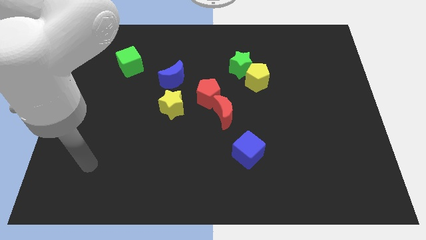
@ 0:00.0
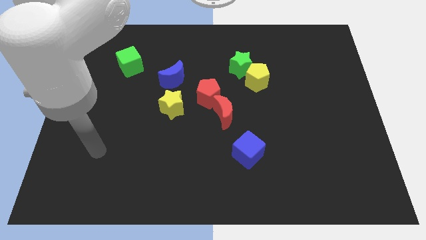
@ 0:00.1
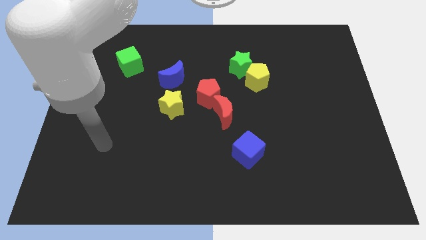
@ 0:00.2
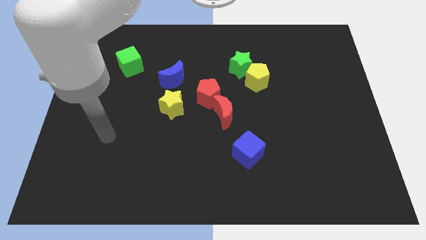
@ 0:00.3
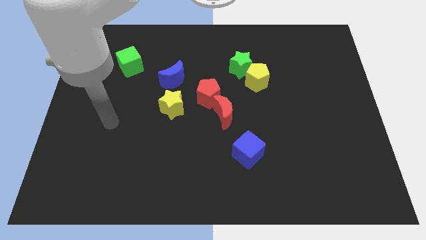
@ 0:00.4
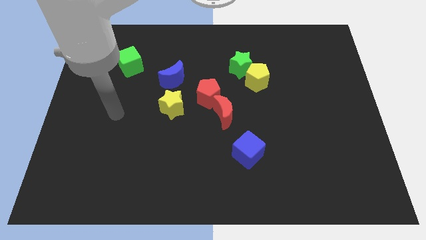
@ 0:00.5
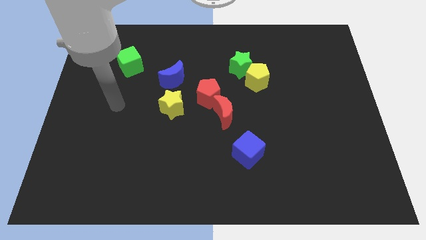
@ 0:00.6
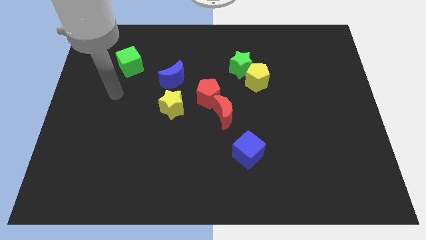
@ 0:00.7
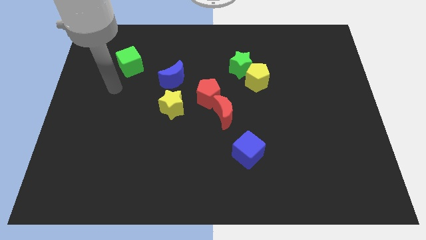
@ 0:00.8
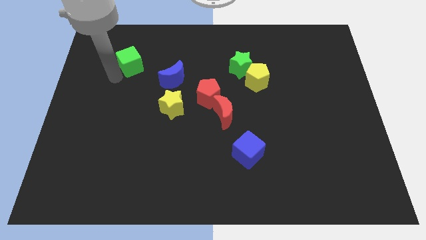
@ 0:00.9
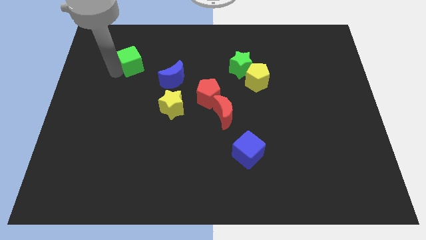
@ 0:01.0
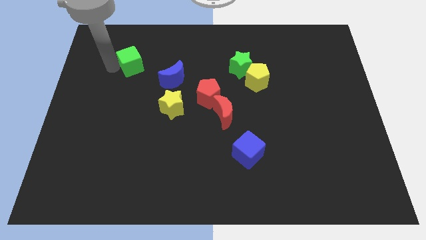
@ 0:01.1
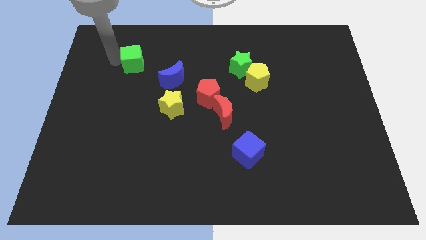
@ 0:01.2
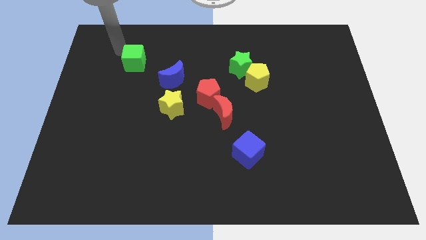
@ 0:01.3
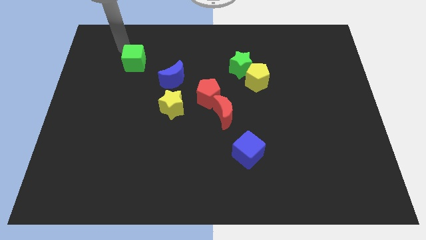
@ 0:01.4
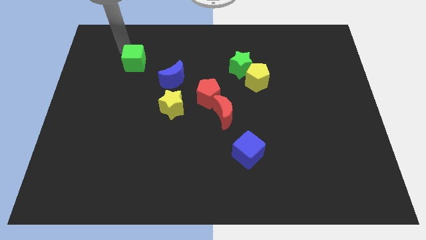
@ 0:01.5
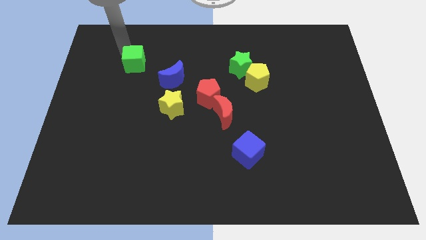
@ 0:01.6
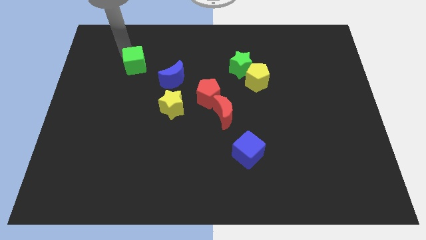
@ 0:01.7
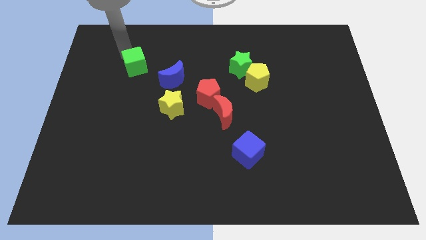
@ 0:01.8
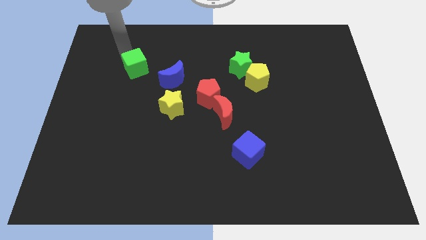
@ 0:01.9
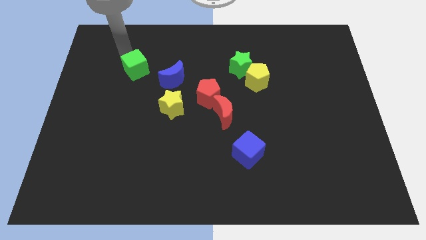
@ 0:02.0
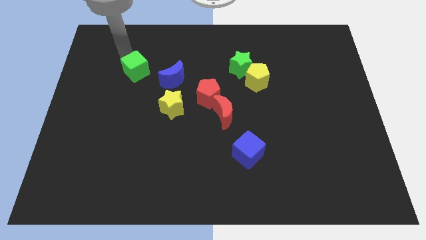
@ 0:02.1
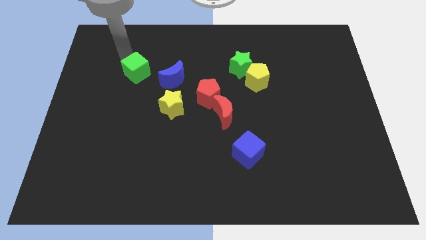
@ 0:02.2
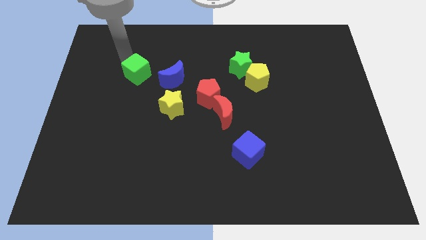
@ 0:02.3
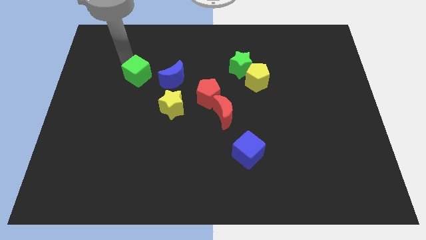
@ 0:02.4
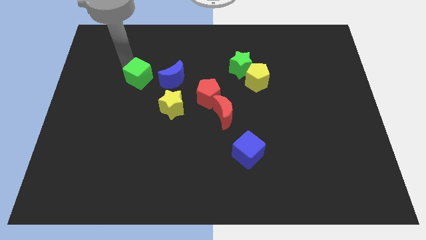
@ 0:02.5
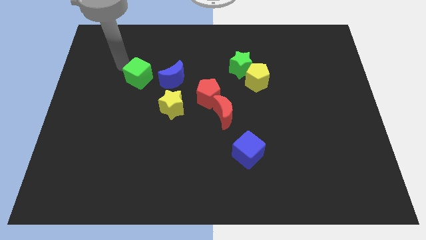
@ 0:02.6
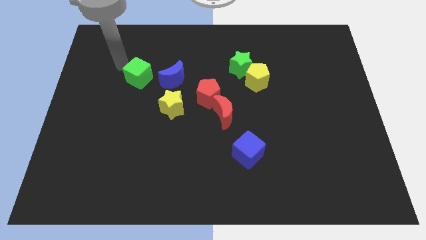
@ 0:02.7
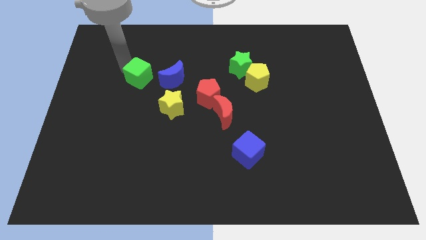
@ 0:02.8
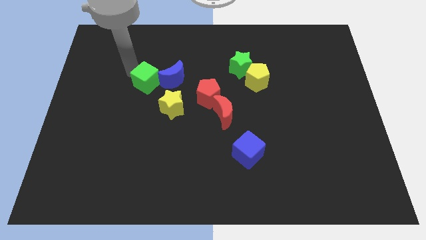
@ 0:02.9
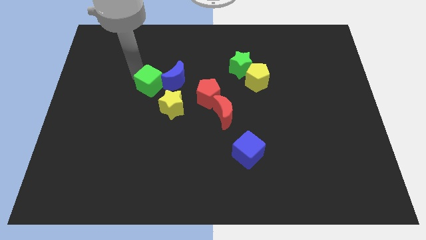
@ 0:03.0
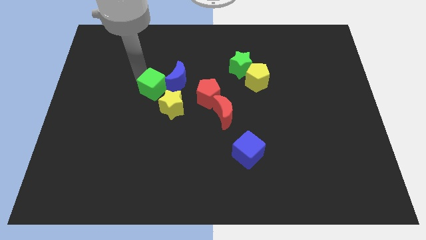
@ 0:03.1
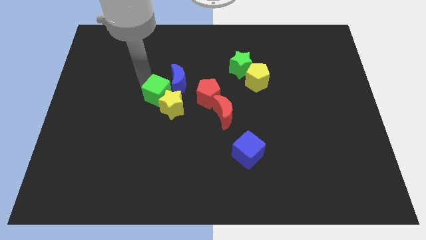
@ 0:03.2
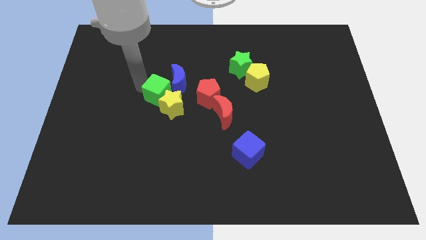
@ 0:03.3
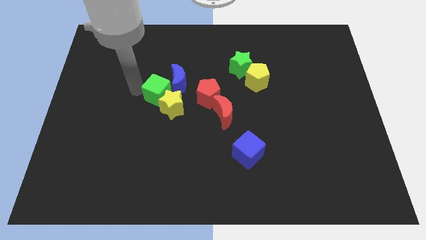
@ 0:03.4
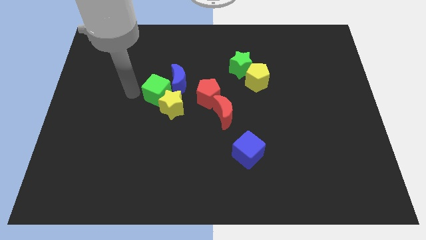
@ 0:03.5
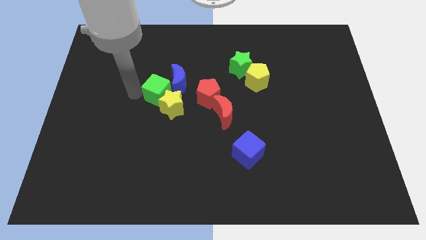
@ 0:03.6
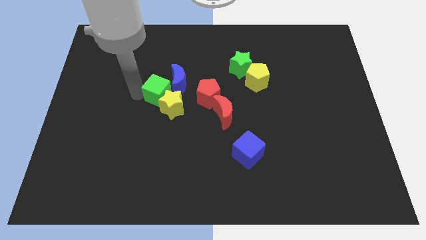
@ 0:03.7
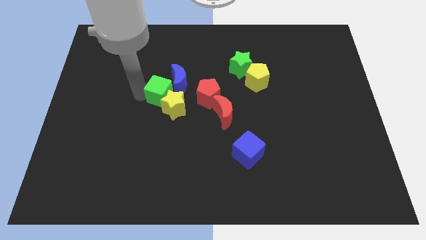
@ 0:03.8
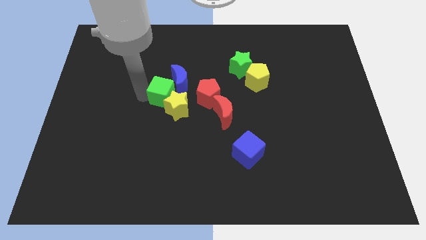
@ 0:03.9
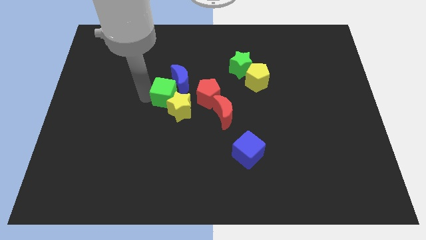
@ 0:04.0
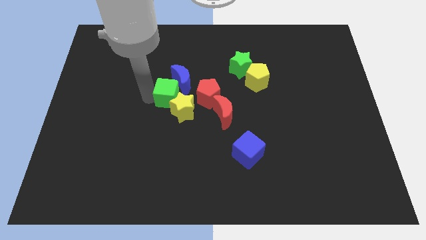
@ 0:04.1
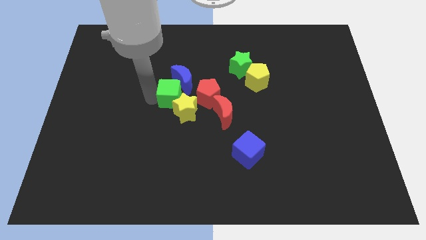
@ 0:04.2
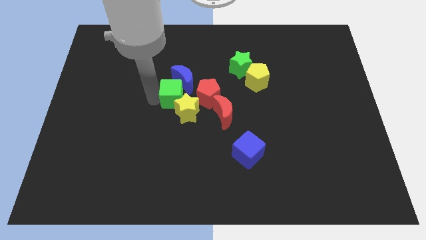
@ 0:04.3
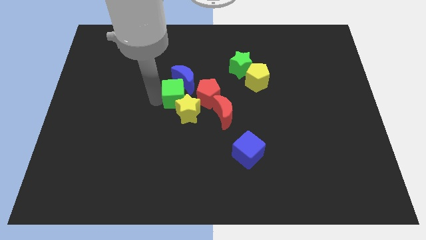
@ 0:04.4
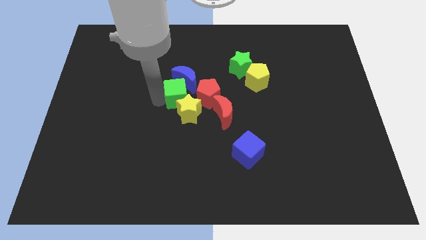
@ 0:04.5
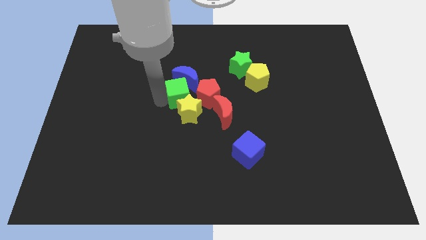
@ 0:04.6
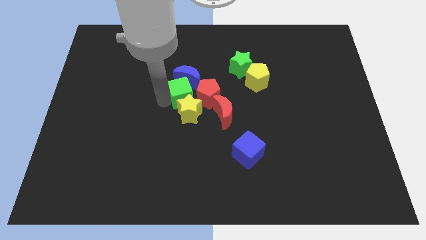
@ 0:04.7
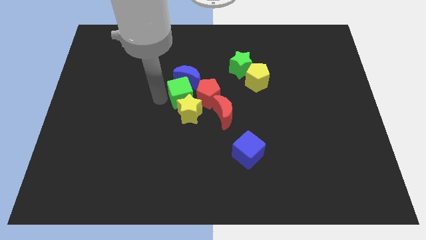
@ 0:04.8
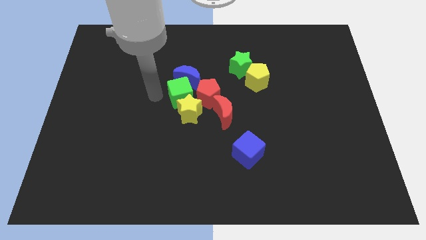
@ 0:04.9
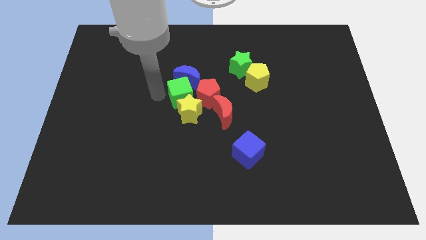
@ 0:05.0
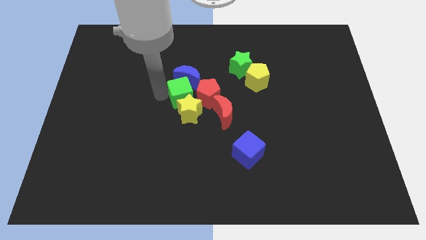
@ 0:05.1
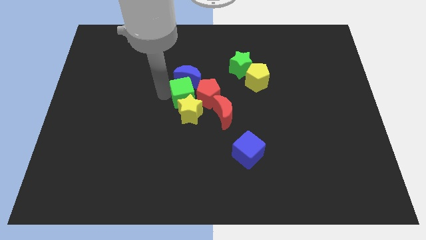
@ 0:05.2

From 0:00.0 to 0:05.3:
put the green cube towards the red pentagon

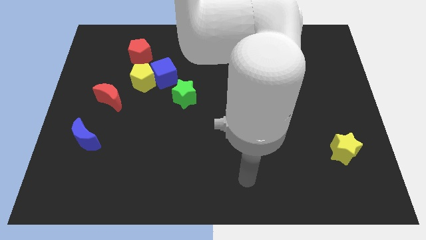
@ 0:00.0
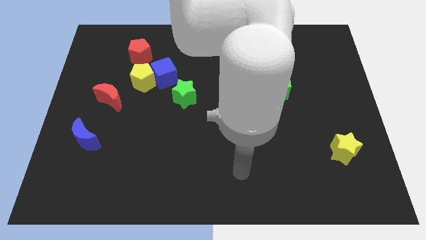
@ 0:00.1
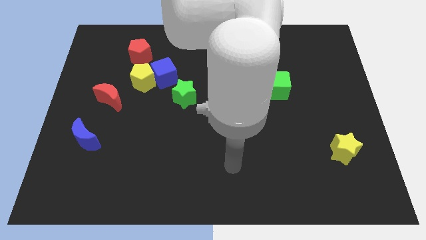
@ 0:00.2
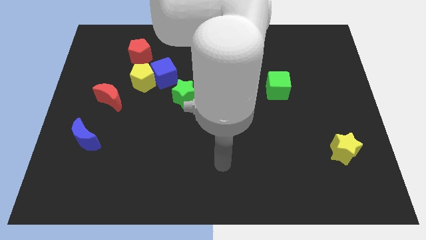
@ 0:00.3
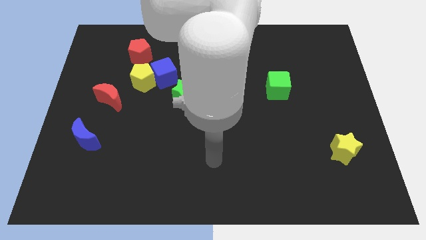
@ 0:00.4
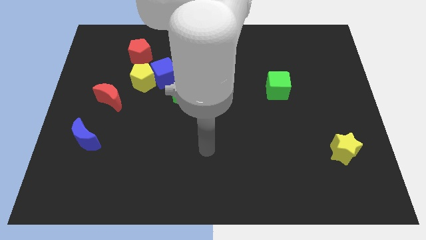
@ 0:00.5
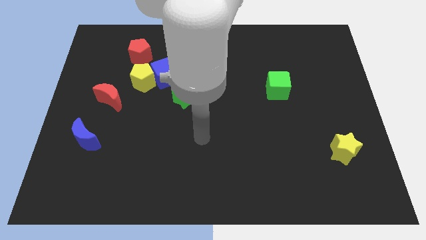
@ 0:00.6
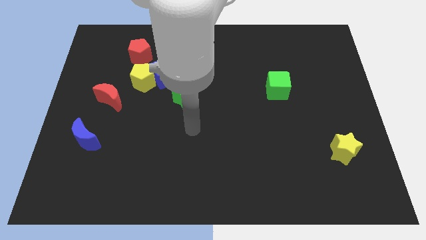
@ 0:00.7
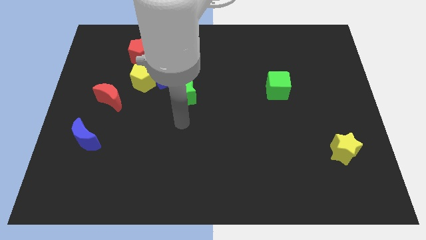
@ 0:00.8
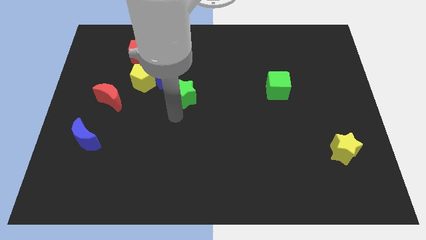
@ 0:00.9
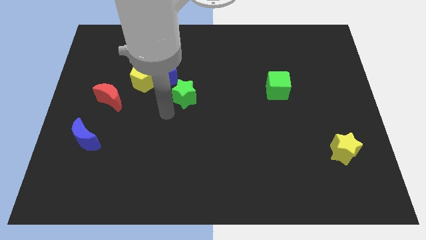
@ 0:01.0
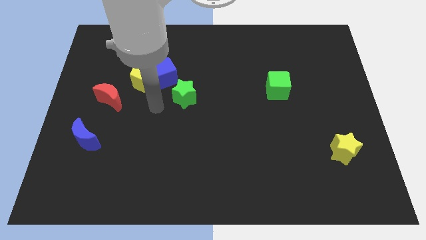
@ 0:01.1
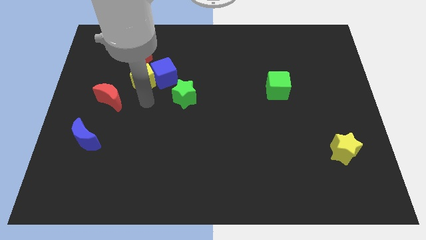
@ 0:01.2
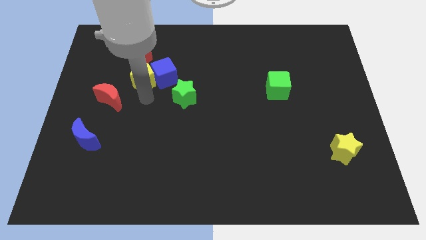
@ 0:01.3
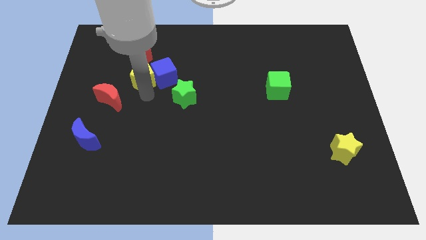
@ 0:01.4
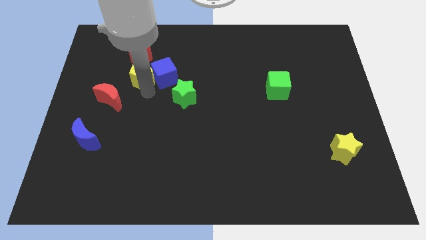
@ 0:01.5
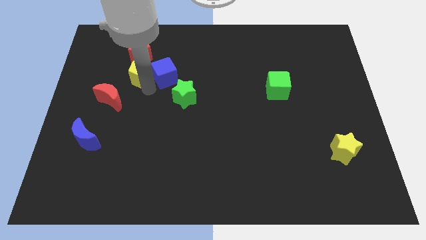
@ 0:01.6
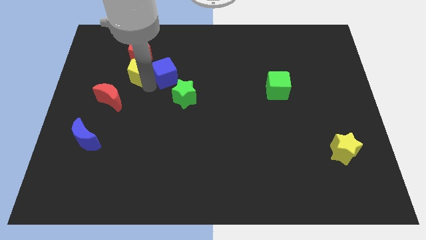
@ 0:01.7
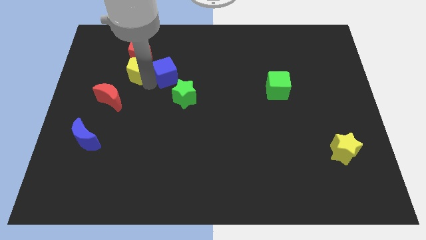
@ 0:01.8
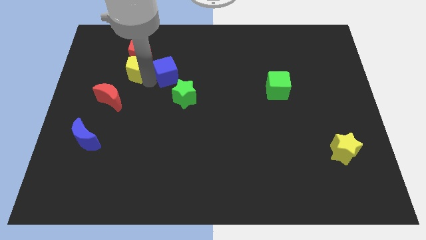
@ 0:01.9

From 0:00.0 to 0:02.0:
put the yellow pentagon towards the red pentagon
